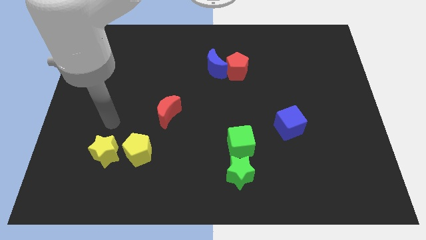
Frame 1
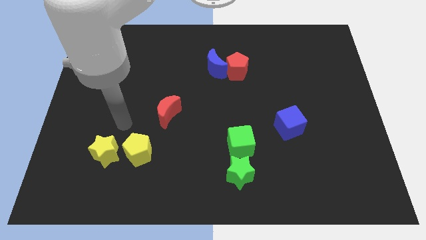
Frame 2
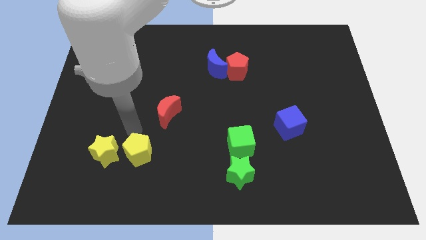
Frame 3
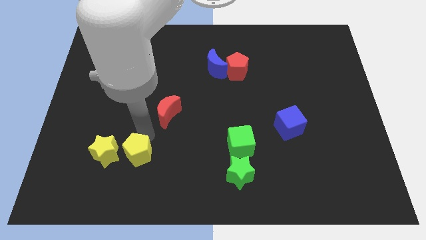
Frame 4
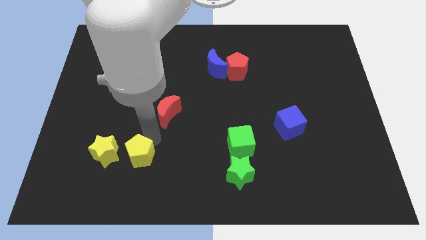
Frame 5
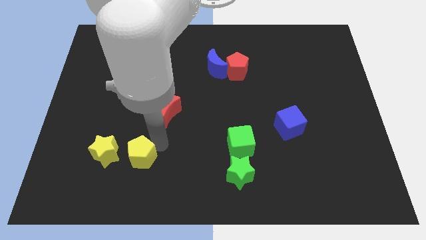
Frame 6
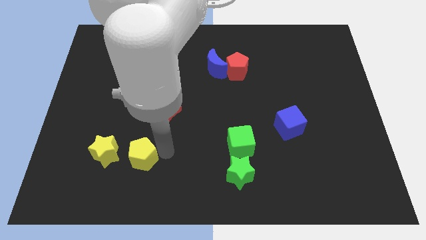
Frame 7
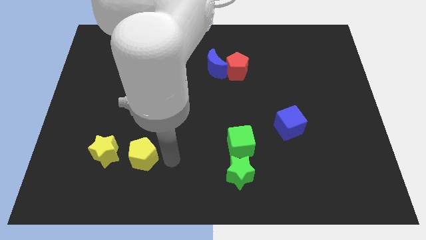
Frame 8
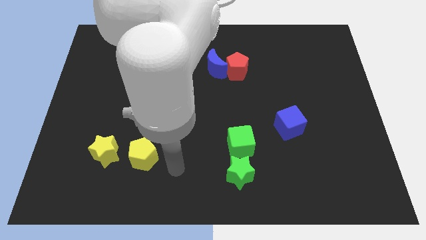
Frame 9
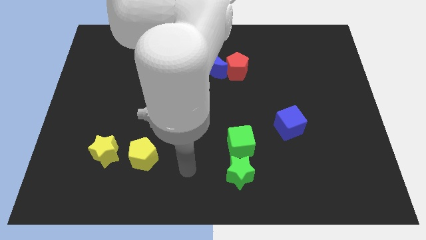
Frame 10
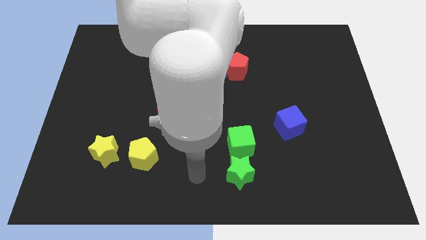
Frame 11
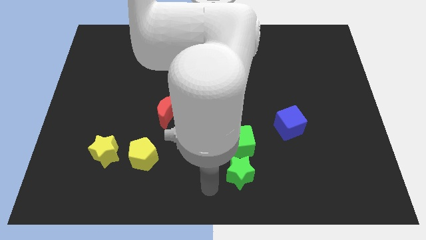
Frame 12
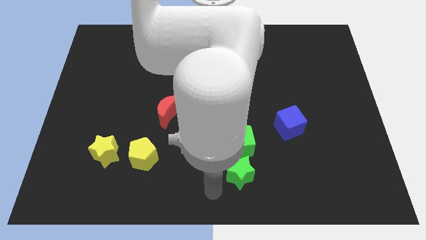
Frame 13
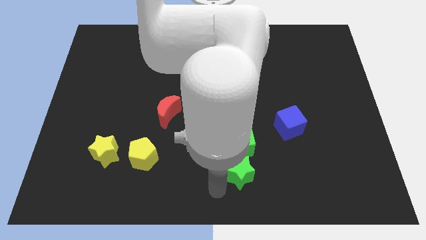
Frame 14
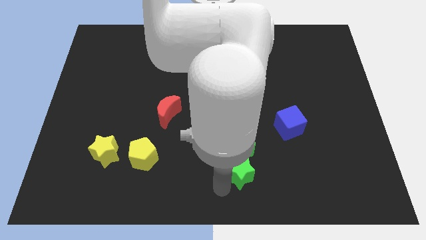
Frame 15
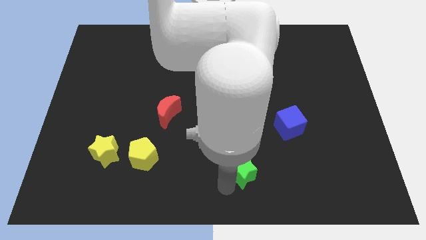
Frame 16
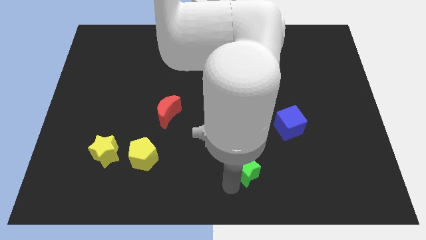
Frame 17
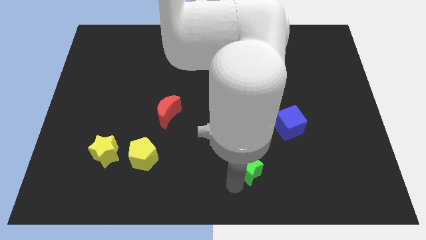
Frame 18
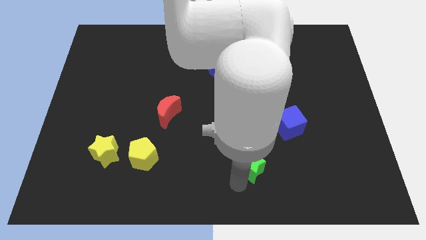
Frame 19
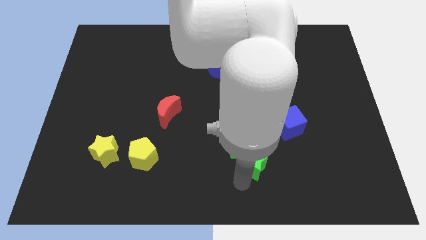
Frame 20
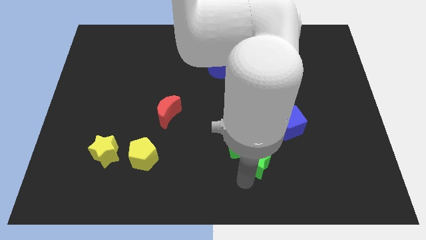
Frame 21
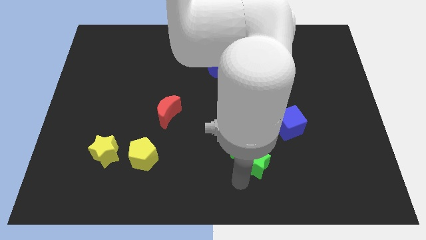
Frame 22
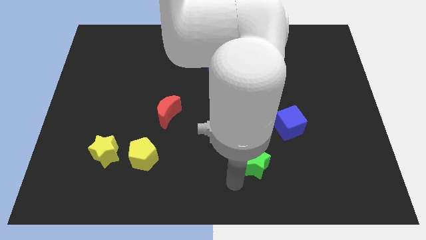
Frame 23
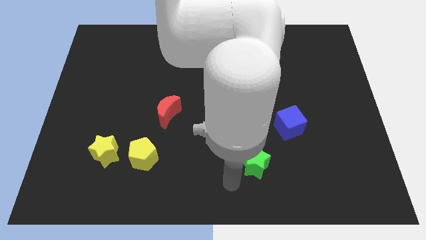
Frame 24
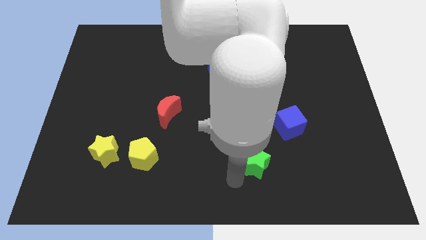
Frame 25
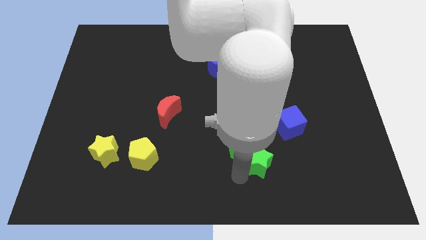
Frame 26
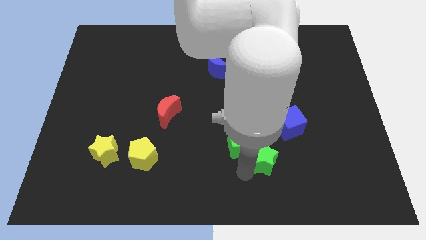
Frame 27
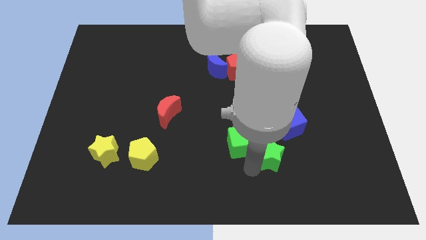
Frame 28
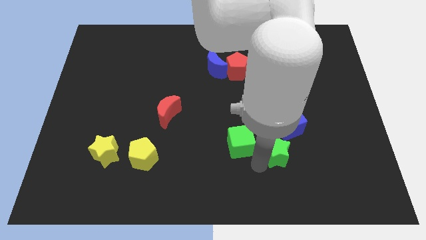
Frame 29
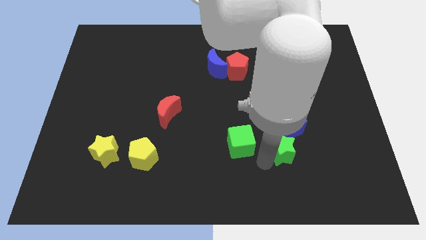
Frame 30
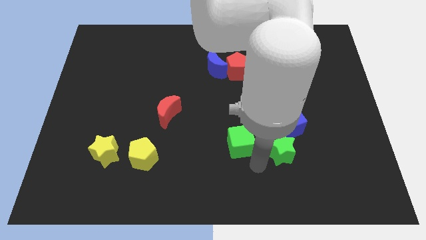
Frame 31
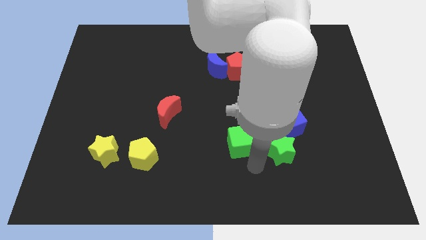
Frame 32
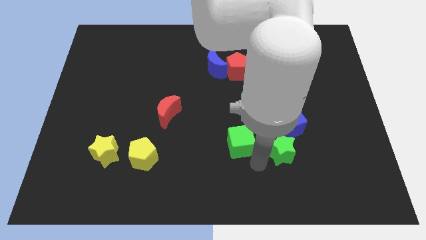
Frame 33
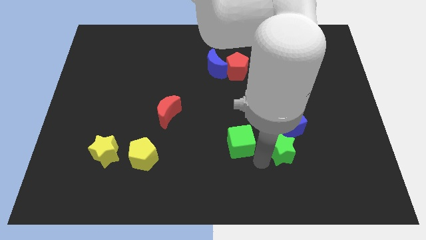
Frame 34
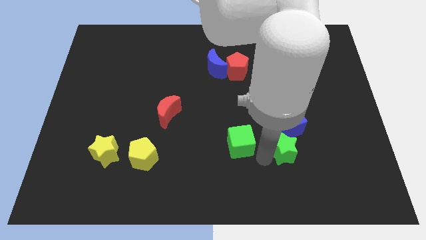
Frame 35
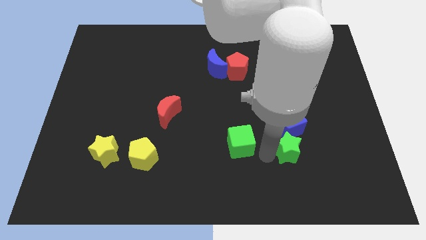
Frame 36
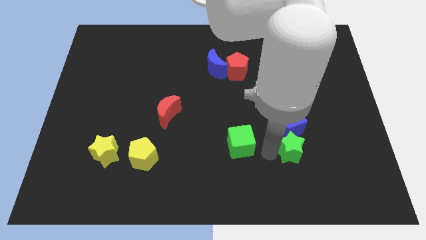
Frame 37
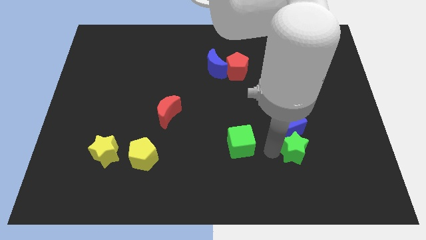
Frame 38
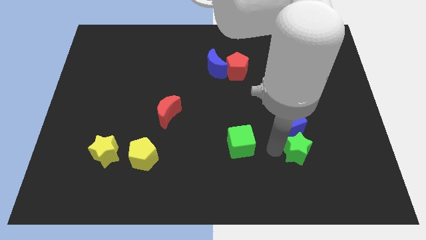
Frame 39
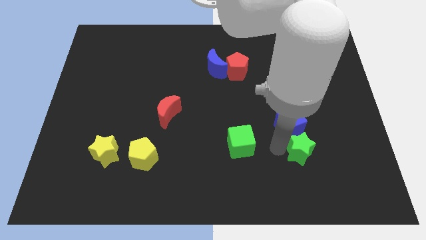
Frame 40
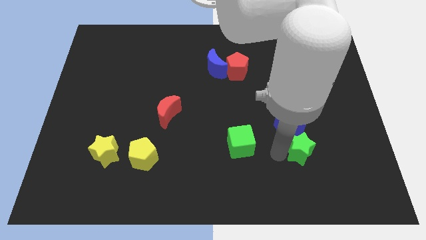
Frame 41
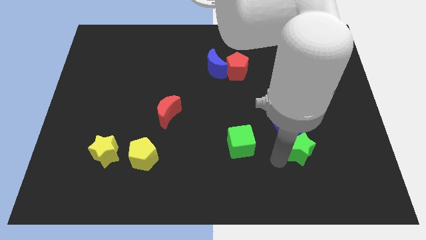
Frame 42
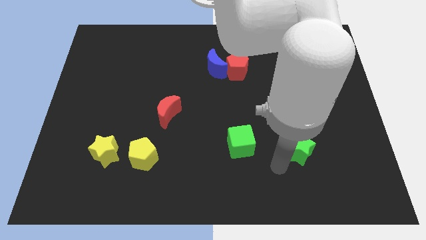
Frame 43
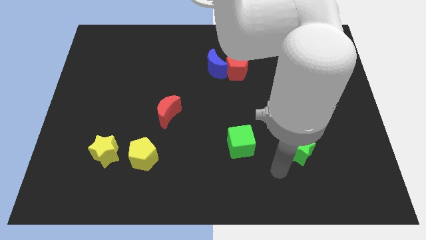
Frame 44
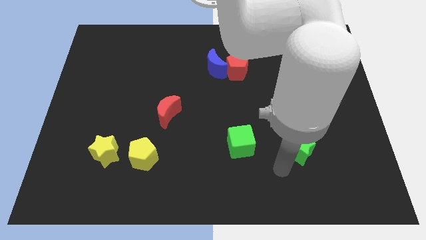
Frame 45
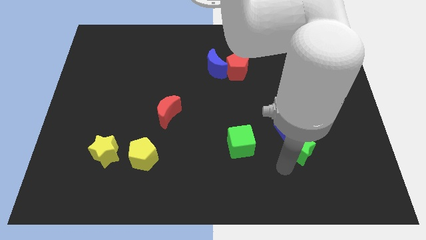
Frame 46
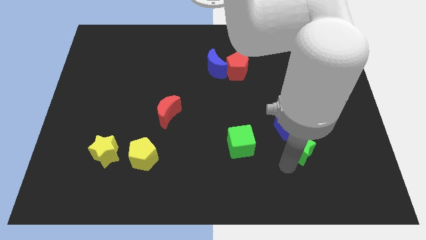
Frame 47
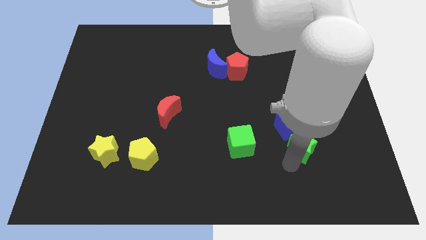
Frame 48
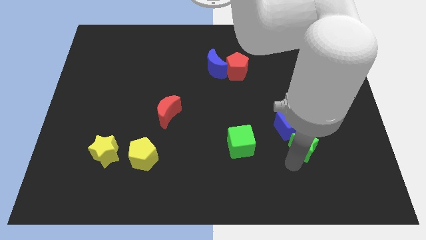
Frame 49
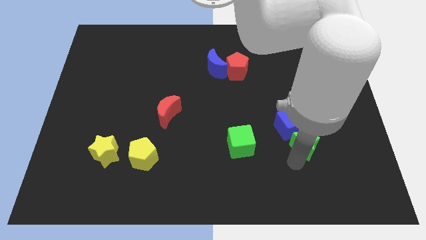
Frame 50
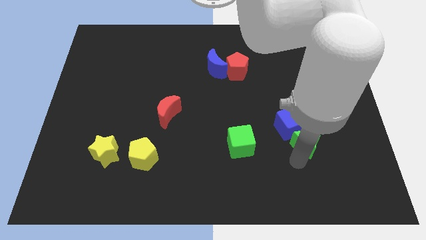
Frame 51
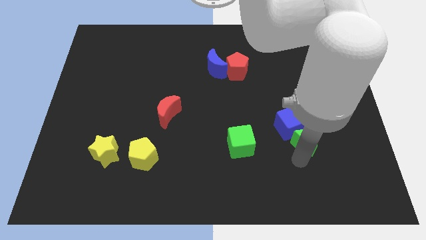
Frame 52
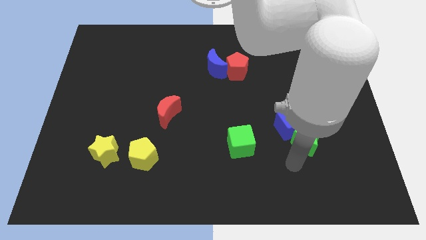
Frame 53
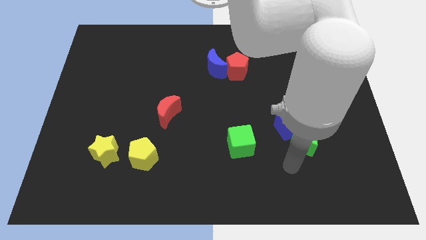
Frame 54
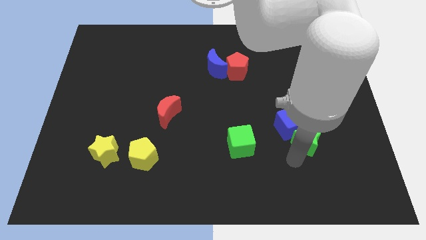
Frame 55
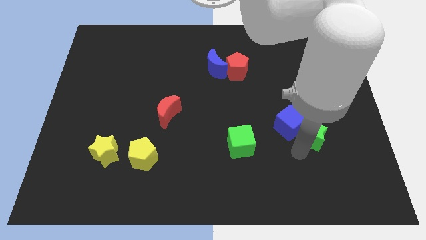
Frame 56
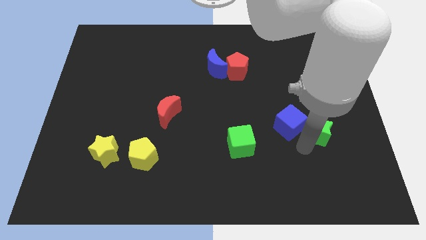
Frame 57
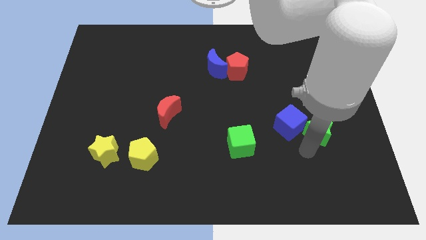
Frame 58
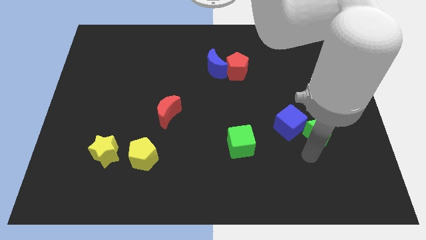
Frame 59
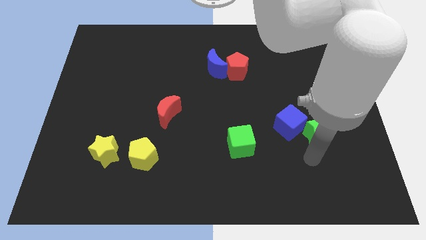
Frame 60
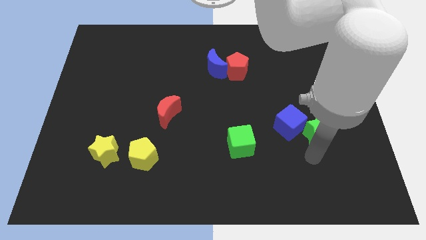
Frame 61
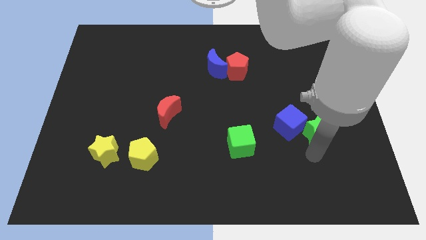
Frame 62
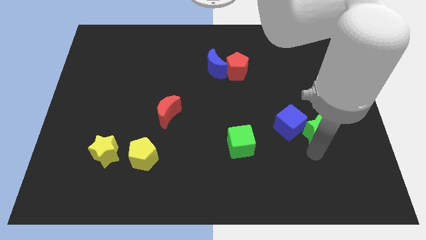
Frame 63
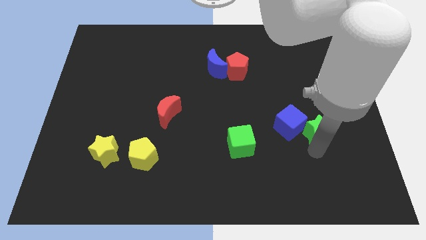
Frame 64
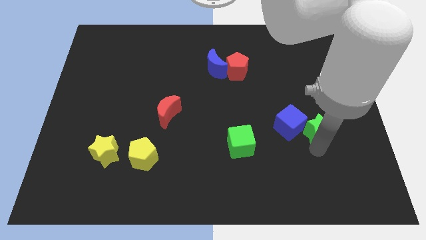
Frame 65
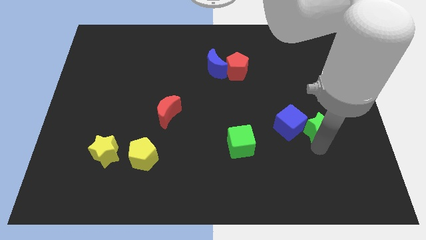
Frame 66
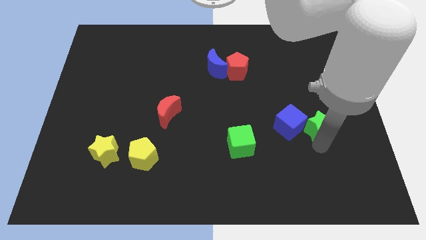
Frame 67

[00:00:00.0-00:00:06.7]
push the green star diagonally up and right

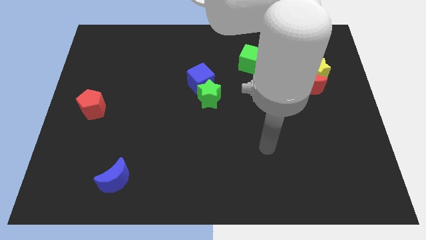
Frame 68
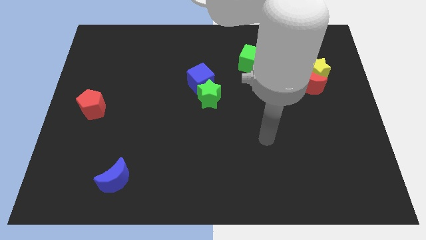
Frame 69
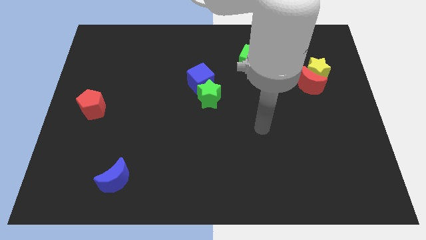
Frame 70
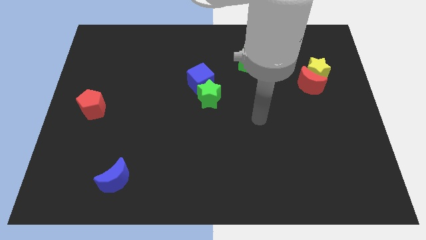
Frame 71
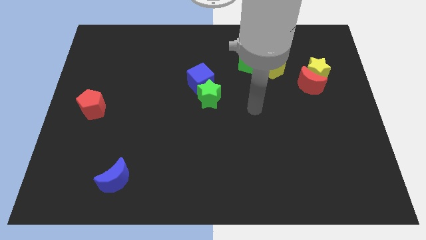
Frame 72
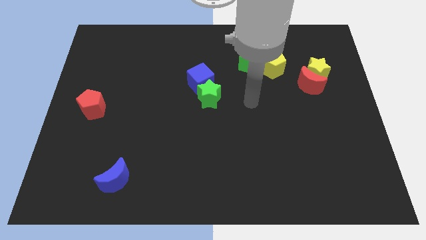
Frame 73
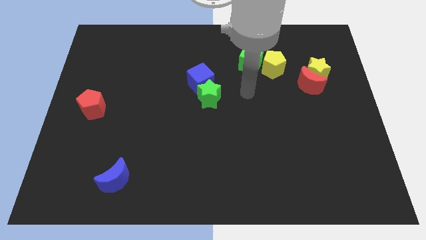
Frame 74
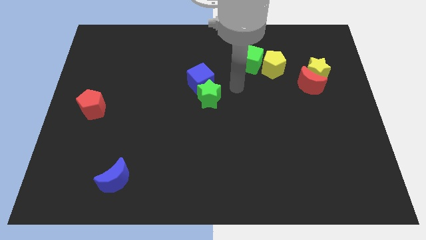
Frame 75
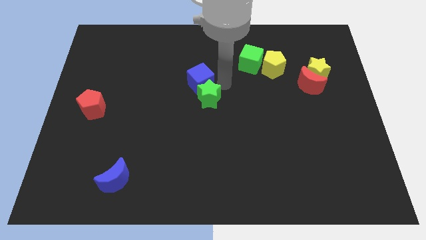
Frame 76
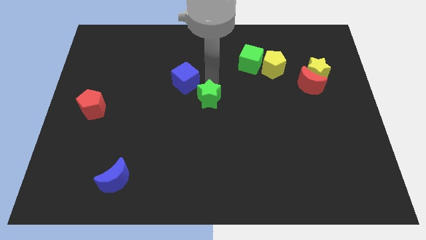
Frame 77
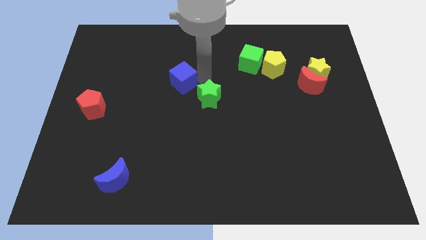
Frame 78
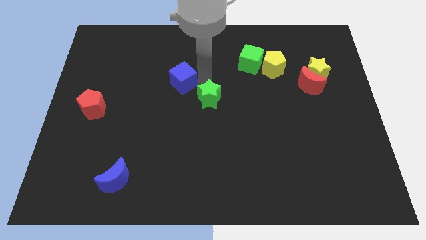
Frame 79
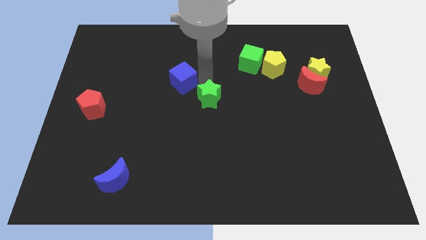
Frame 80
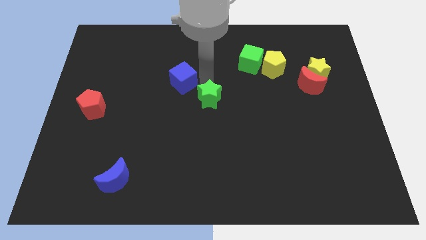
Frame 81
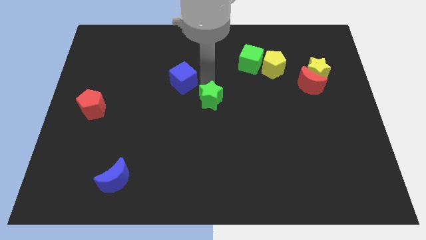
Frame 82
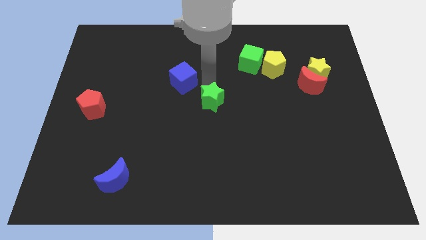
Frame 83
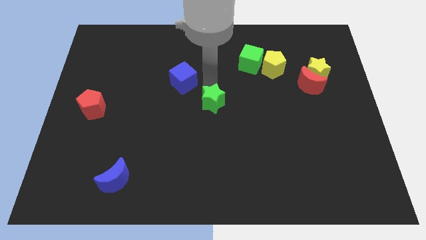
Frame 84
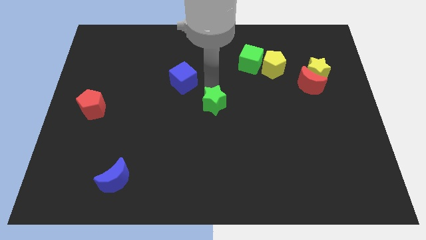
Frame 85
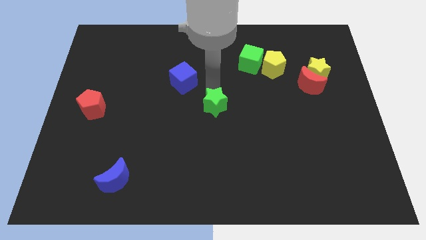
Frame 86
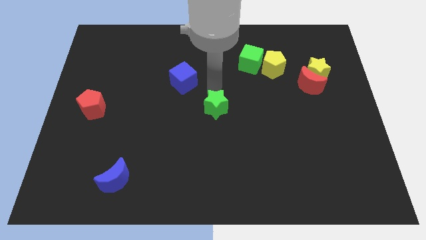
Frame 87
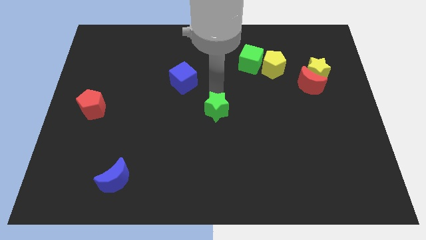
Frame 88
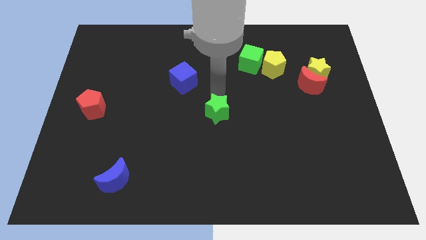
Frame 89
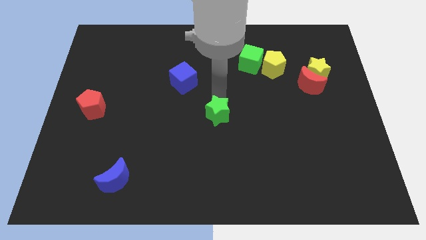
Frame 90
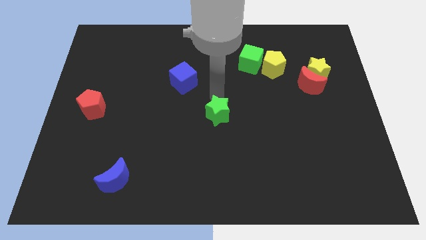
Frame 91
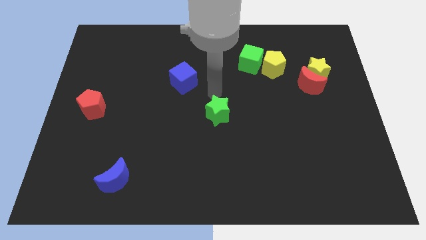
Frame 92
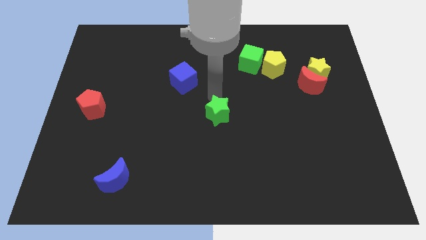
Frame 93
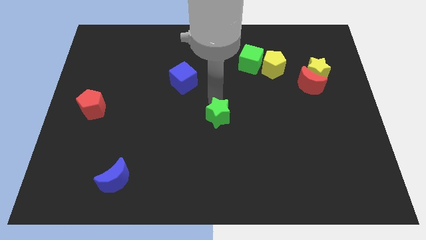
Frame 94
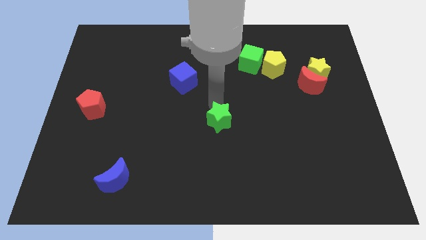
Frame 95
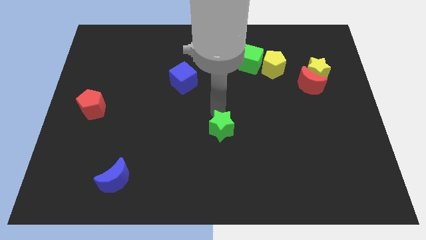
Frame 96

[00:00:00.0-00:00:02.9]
slightly push the green star downwards
